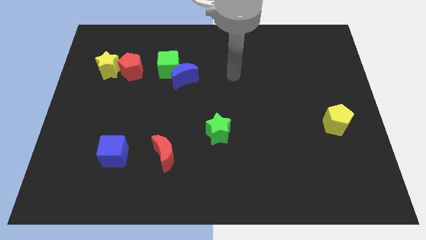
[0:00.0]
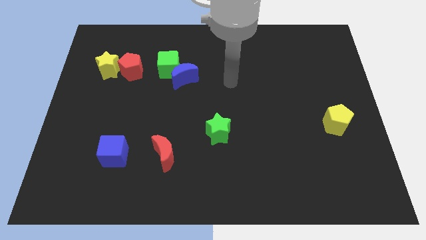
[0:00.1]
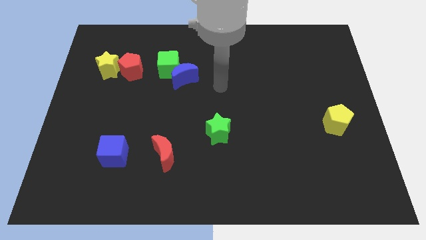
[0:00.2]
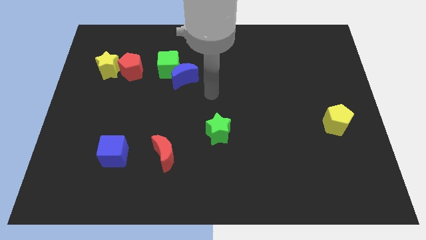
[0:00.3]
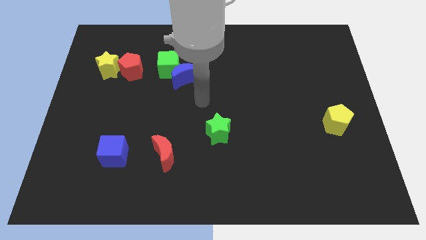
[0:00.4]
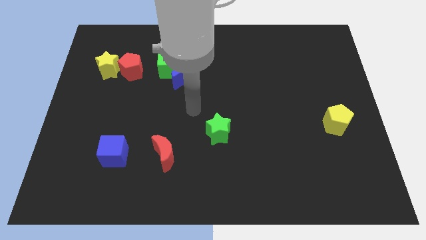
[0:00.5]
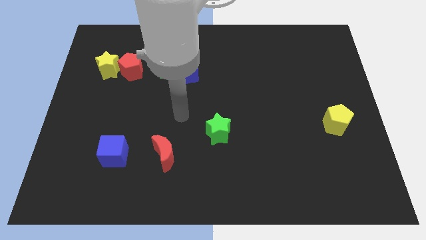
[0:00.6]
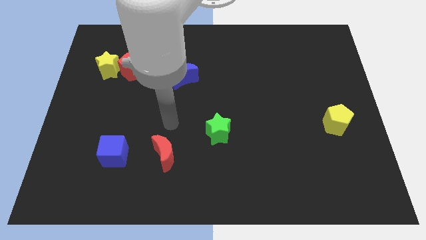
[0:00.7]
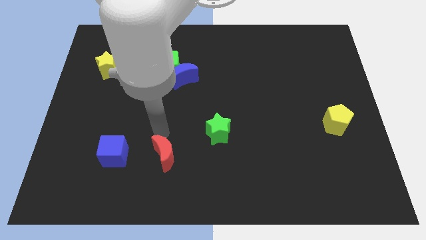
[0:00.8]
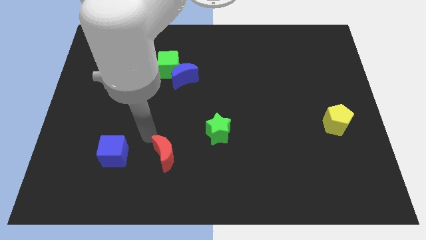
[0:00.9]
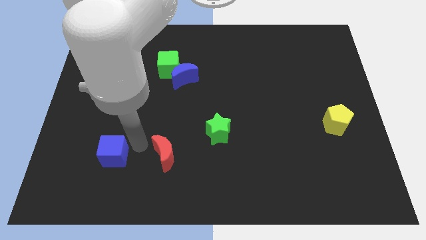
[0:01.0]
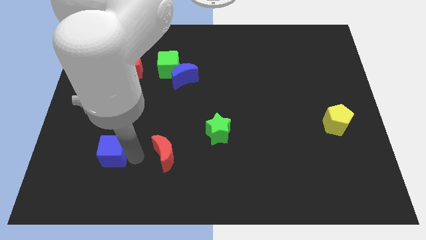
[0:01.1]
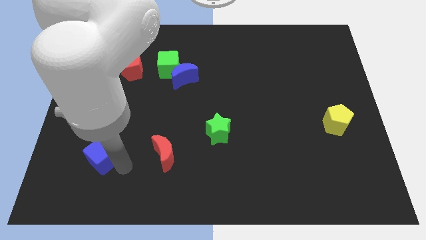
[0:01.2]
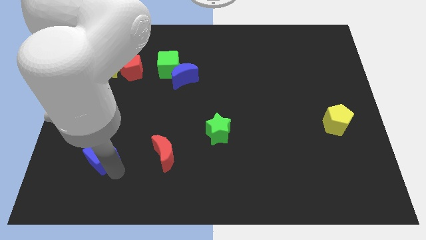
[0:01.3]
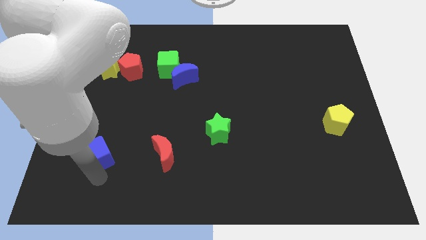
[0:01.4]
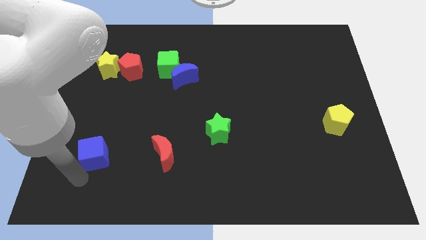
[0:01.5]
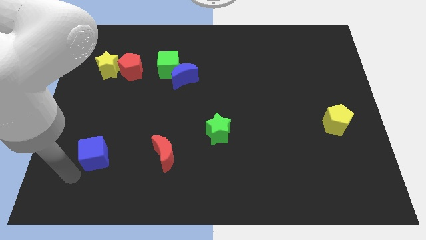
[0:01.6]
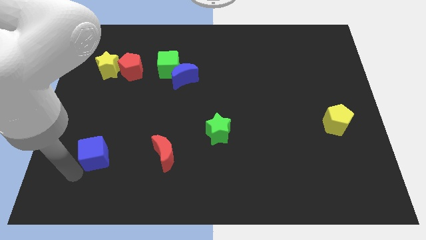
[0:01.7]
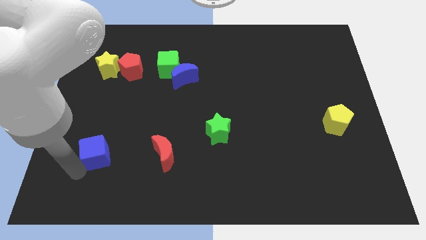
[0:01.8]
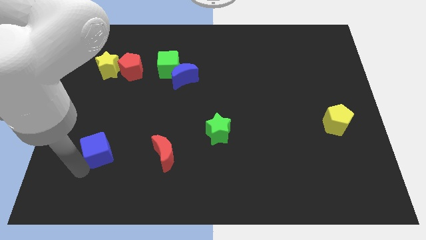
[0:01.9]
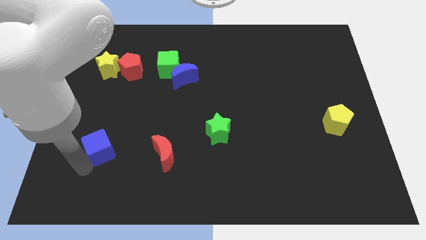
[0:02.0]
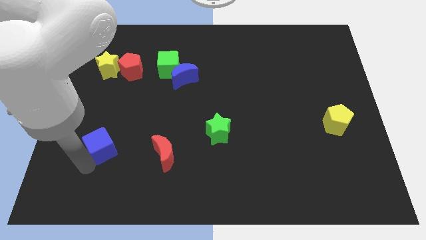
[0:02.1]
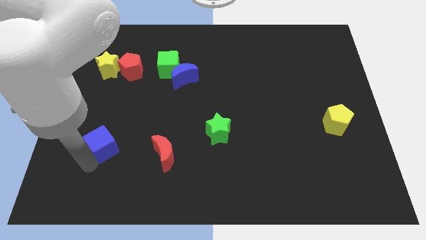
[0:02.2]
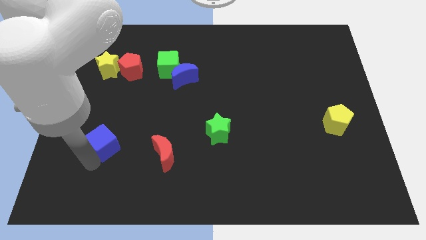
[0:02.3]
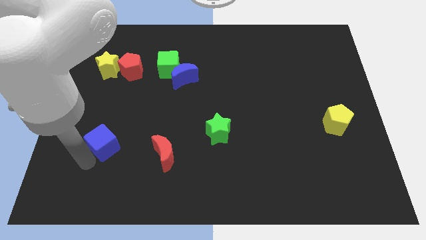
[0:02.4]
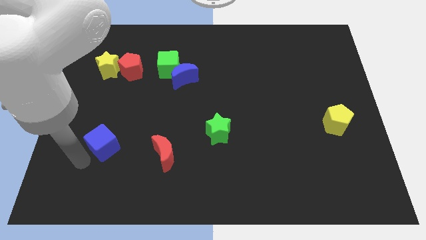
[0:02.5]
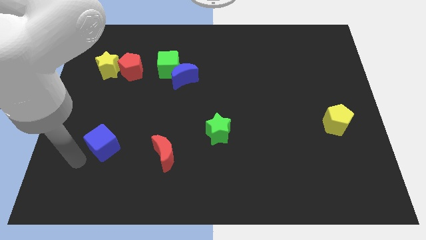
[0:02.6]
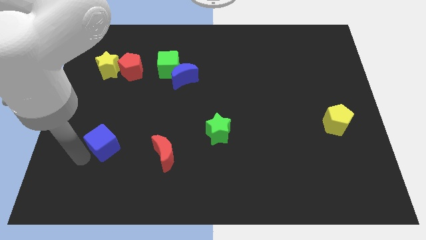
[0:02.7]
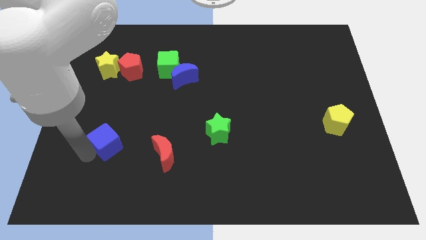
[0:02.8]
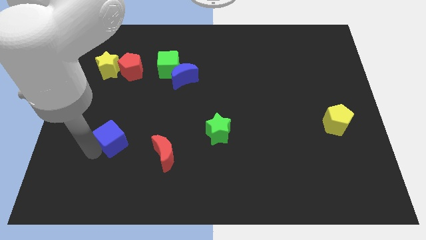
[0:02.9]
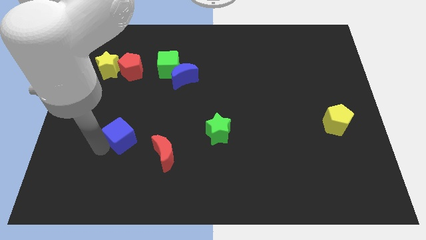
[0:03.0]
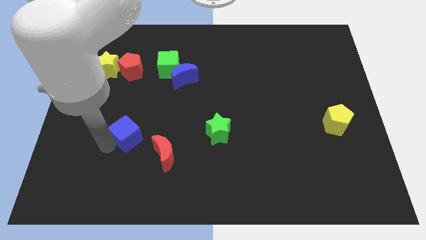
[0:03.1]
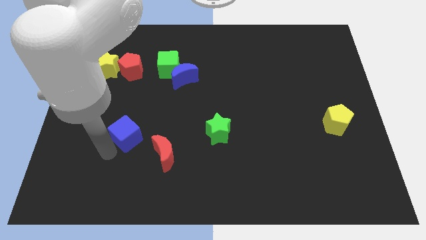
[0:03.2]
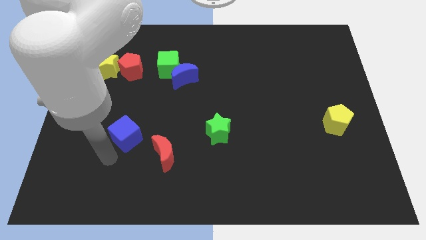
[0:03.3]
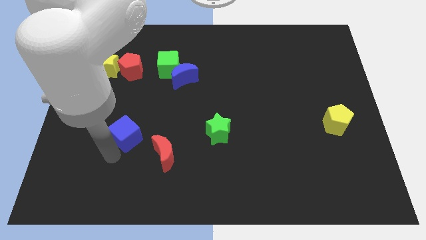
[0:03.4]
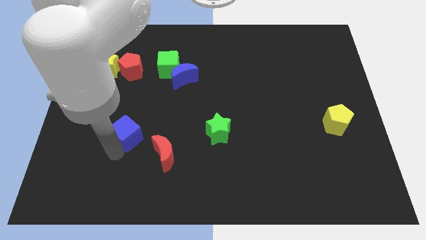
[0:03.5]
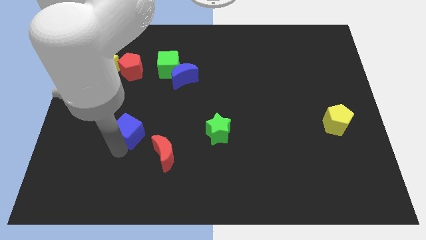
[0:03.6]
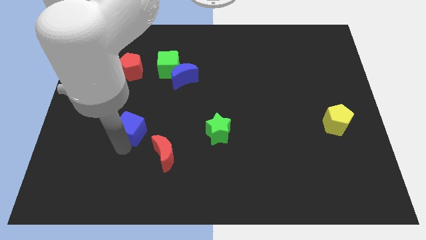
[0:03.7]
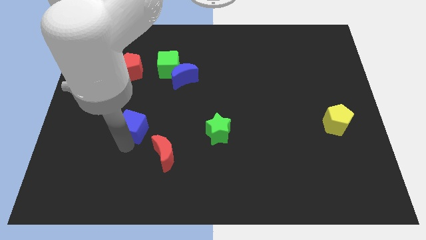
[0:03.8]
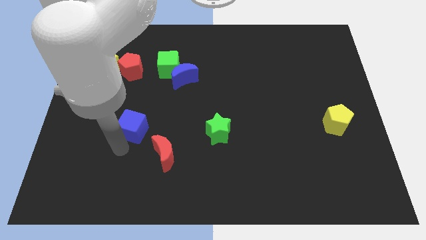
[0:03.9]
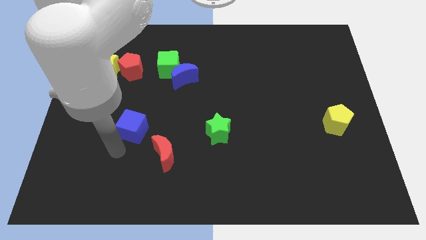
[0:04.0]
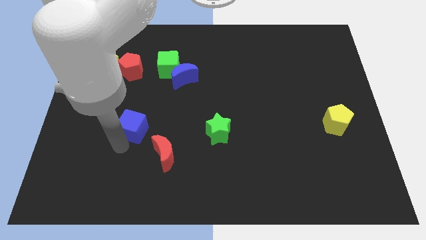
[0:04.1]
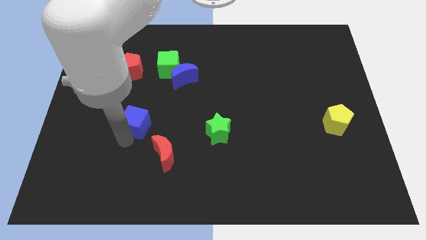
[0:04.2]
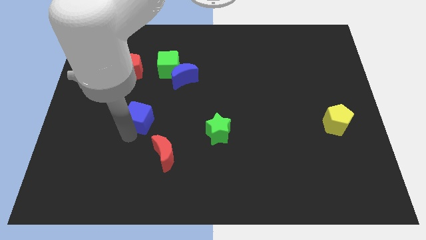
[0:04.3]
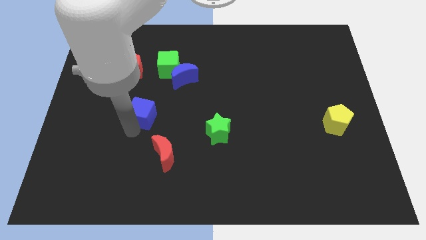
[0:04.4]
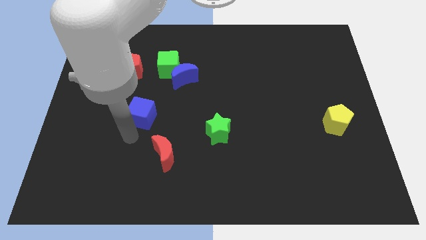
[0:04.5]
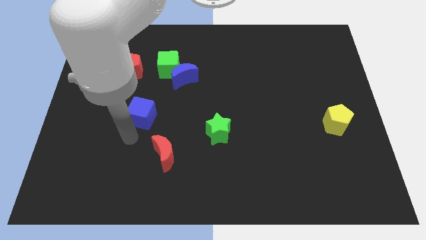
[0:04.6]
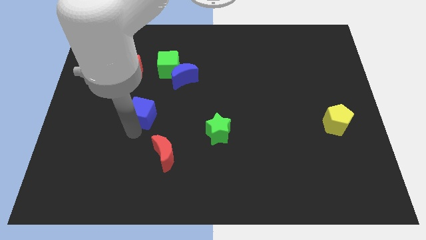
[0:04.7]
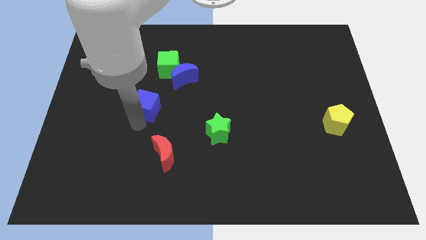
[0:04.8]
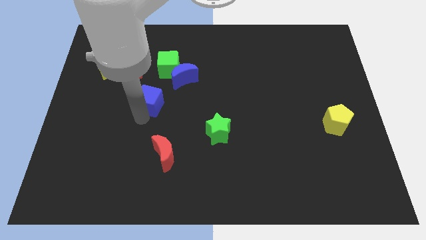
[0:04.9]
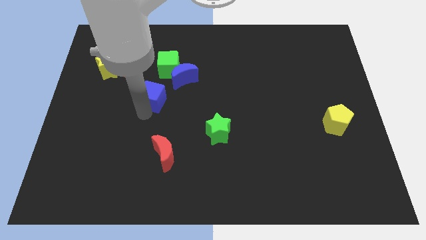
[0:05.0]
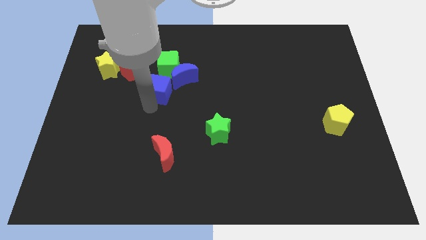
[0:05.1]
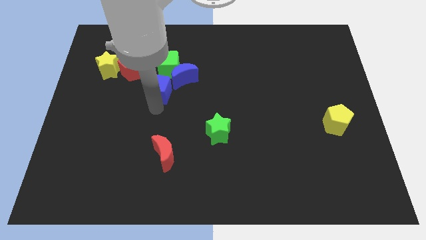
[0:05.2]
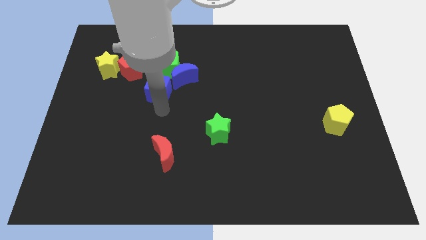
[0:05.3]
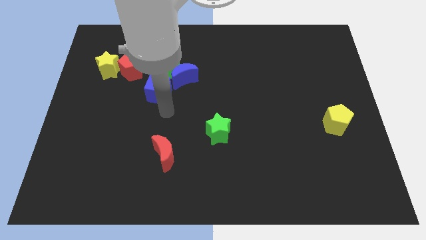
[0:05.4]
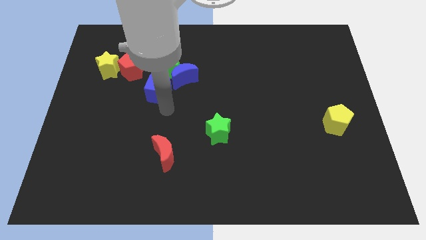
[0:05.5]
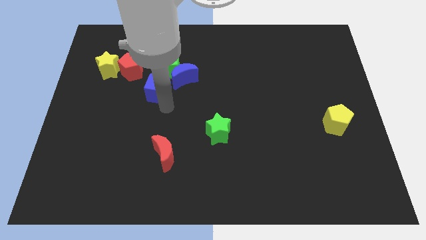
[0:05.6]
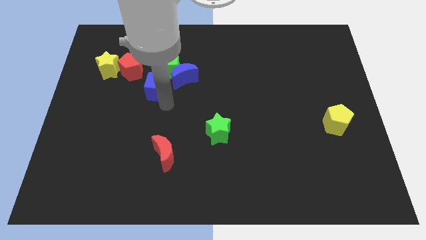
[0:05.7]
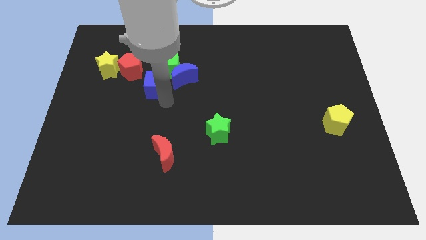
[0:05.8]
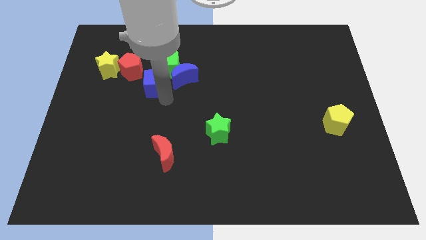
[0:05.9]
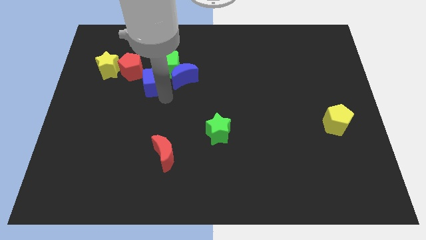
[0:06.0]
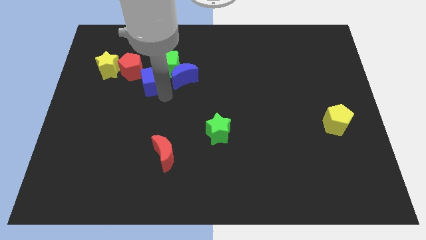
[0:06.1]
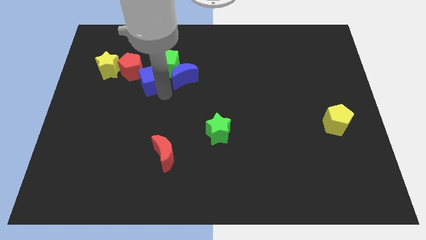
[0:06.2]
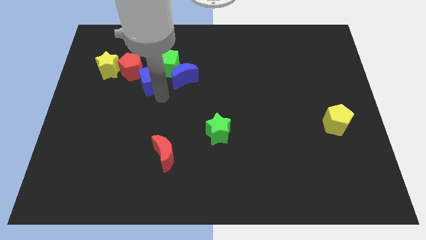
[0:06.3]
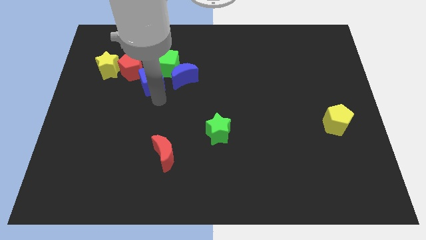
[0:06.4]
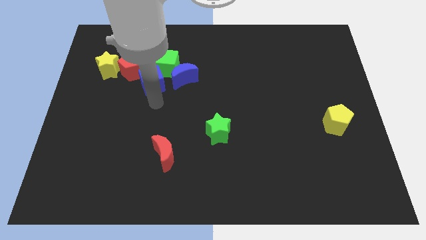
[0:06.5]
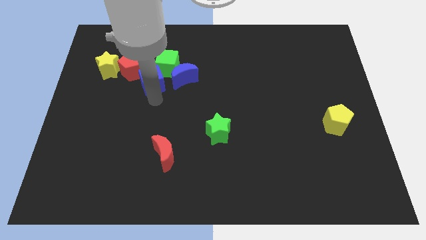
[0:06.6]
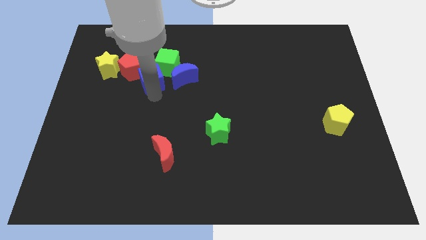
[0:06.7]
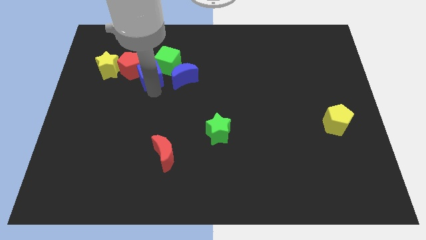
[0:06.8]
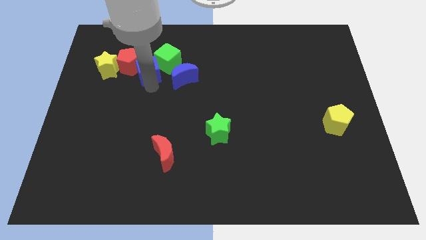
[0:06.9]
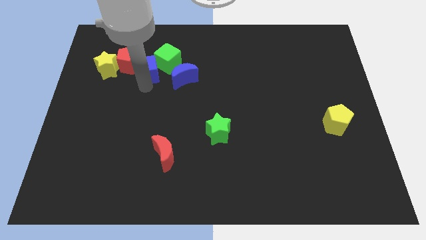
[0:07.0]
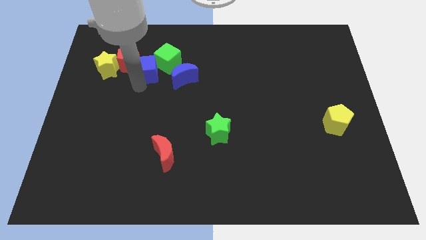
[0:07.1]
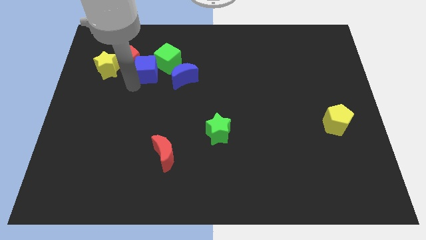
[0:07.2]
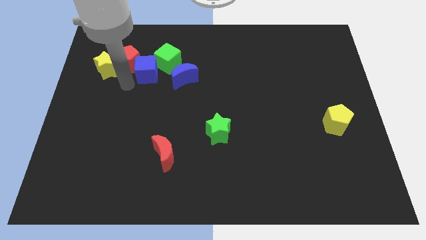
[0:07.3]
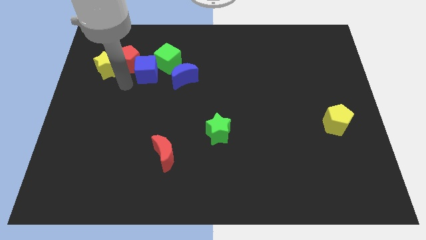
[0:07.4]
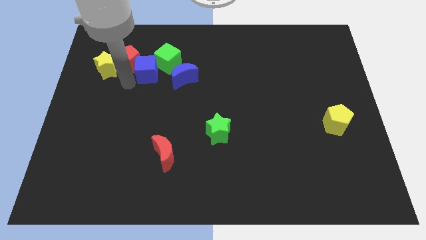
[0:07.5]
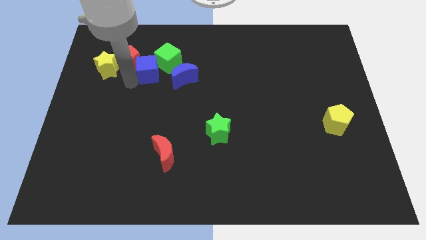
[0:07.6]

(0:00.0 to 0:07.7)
move the blue cube to the top left side of the blue moon
